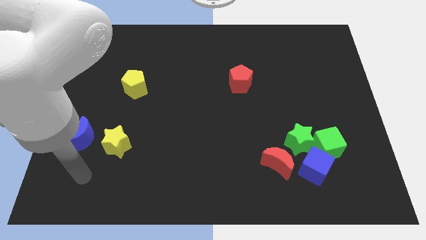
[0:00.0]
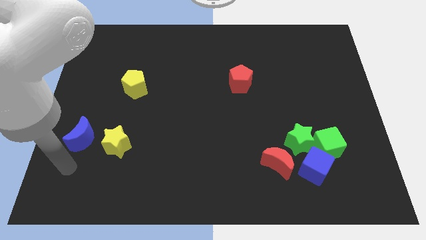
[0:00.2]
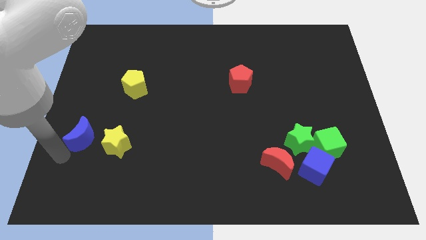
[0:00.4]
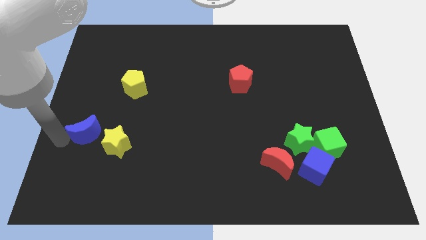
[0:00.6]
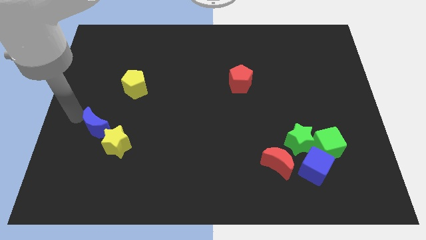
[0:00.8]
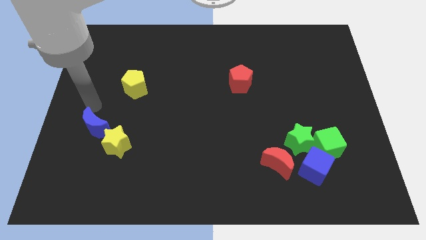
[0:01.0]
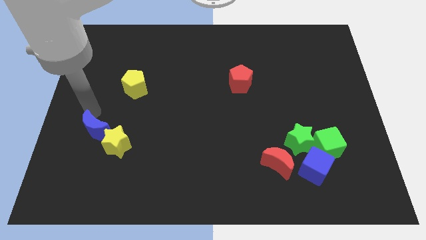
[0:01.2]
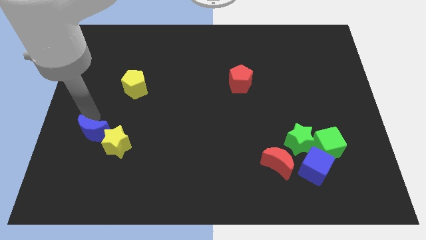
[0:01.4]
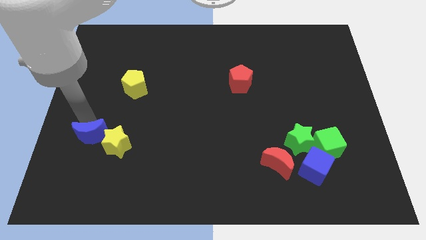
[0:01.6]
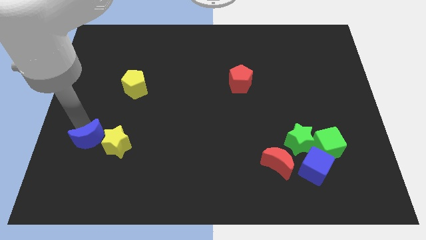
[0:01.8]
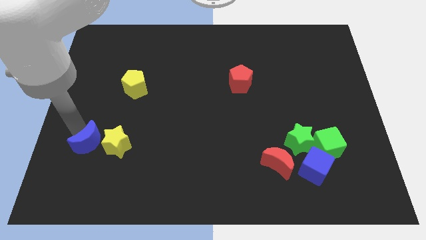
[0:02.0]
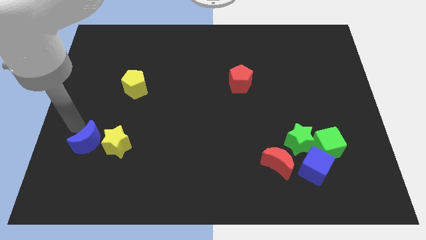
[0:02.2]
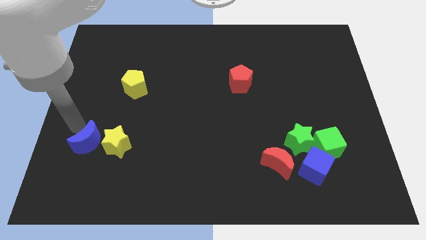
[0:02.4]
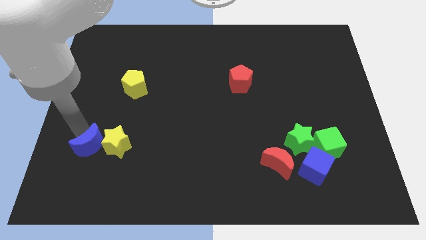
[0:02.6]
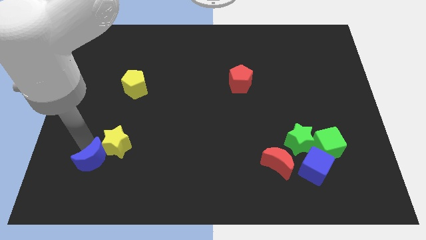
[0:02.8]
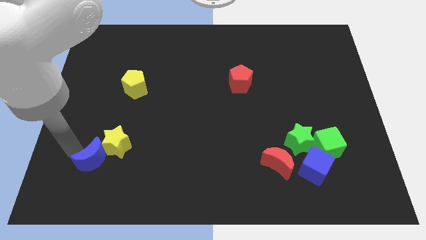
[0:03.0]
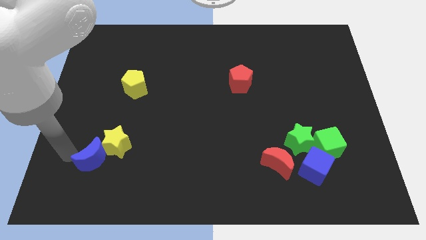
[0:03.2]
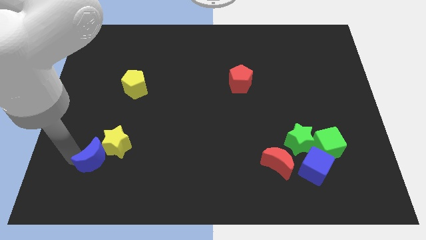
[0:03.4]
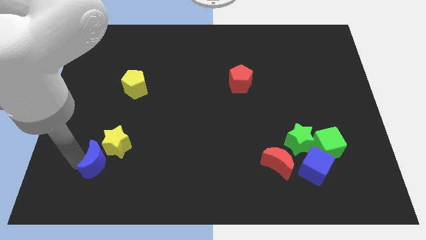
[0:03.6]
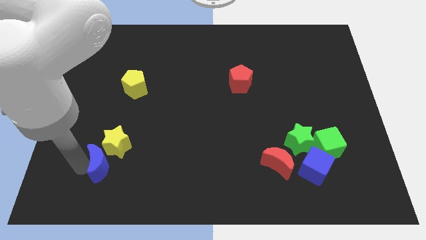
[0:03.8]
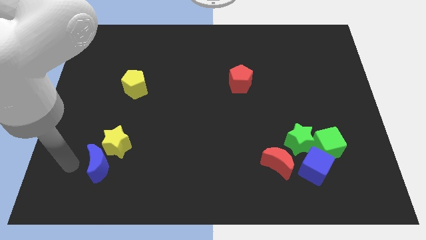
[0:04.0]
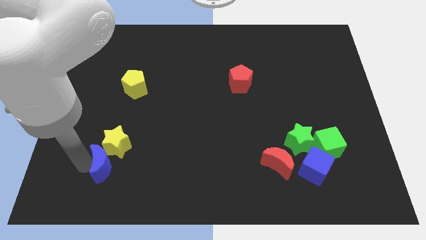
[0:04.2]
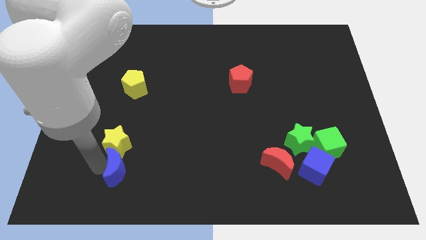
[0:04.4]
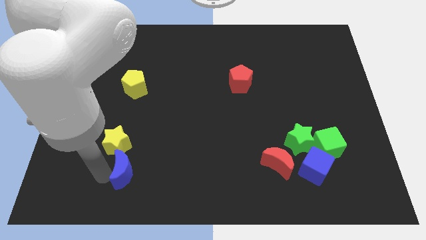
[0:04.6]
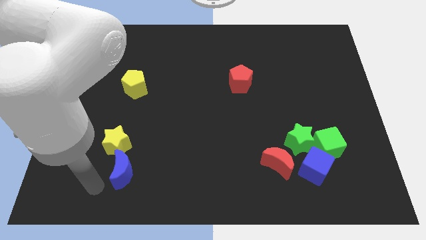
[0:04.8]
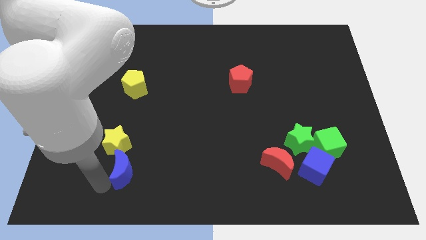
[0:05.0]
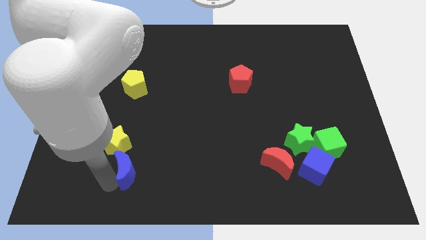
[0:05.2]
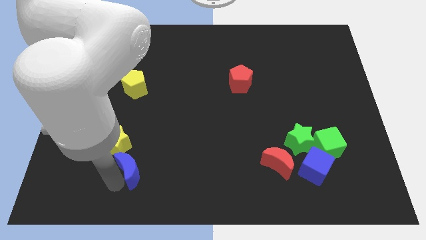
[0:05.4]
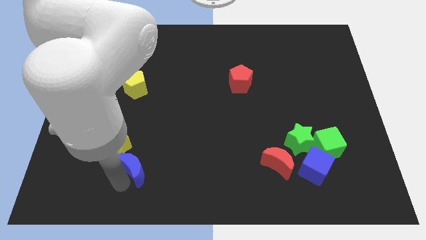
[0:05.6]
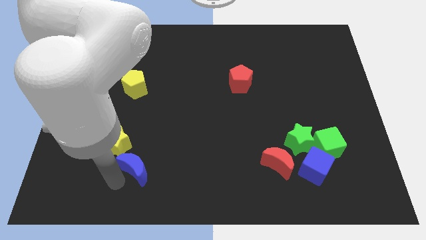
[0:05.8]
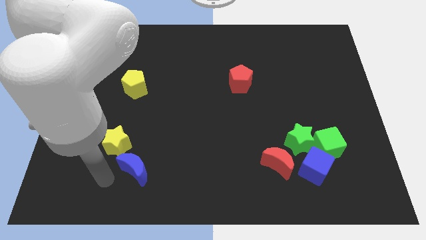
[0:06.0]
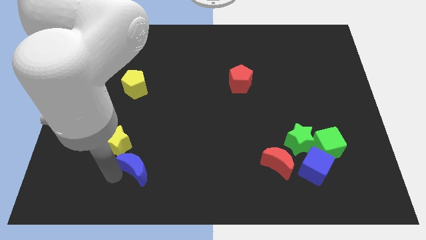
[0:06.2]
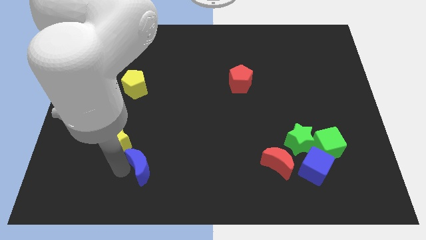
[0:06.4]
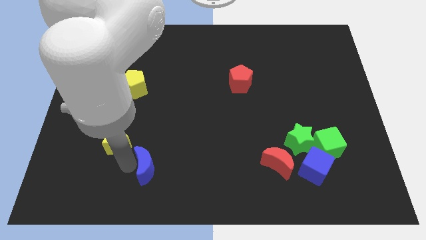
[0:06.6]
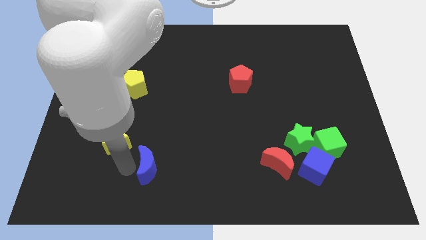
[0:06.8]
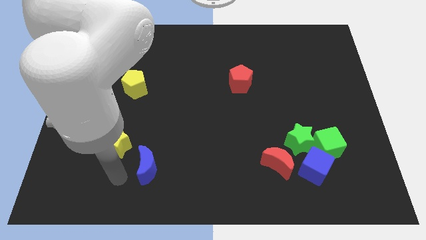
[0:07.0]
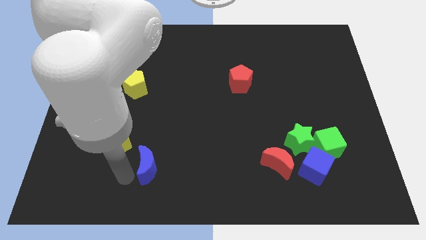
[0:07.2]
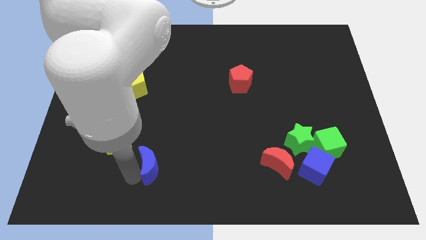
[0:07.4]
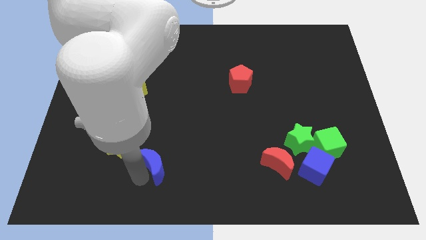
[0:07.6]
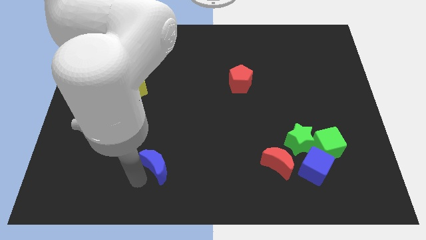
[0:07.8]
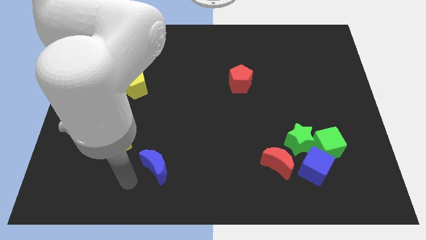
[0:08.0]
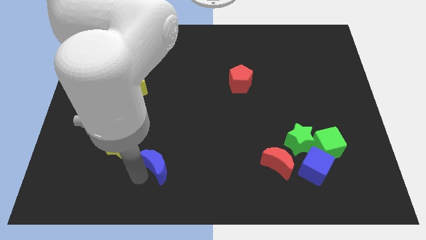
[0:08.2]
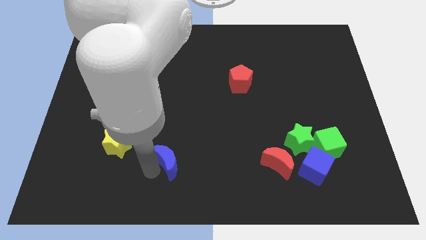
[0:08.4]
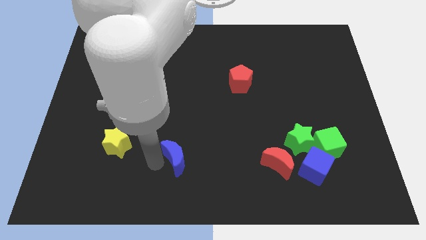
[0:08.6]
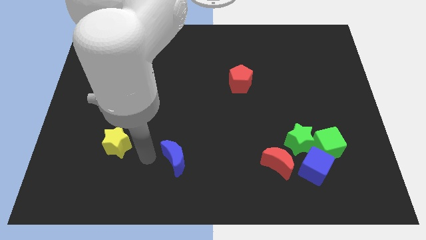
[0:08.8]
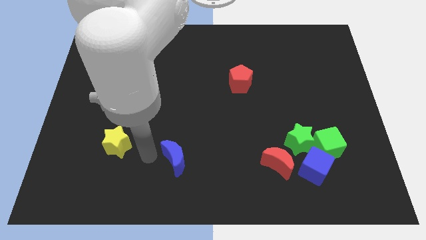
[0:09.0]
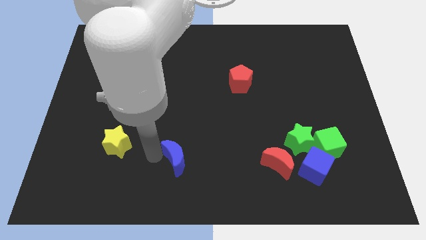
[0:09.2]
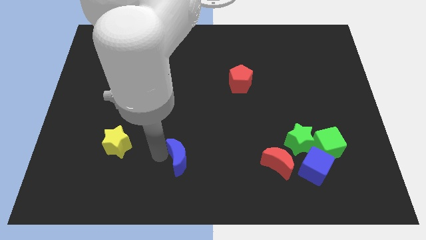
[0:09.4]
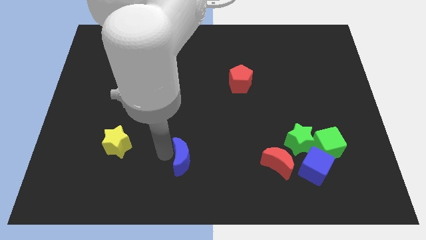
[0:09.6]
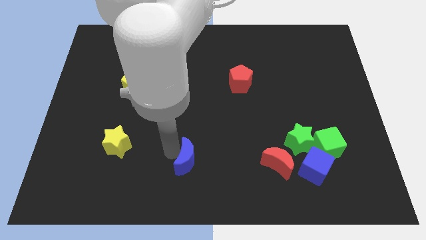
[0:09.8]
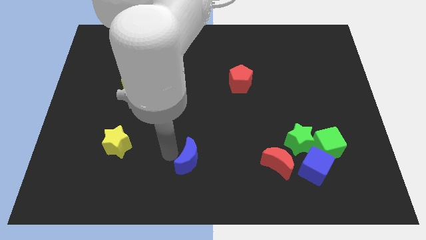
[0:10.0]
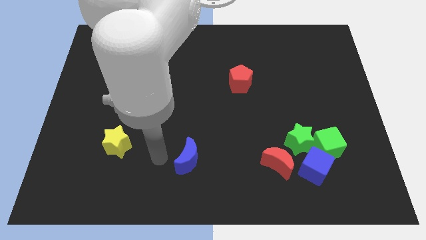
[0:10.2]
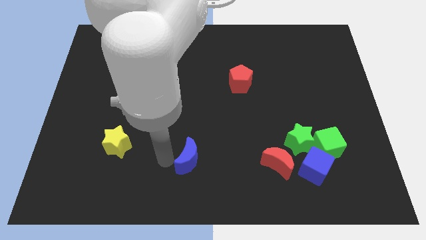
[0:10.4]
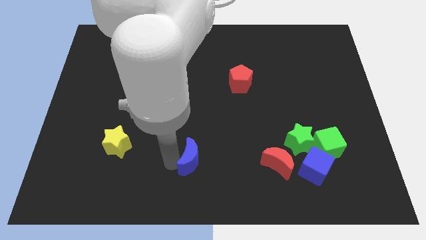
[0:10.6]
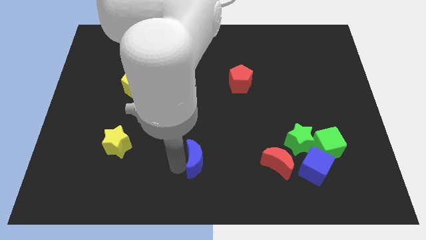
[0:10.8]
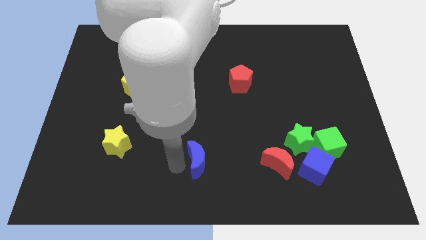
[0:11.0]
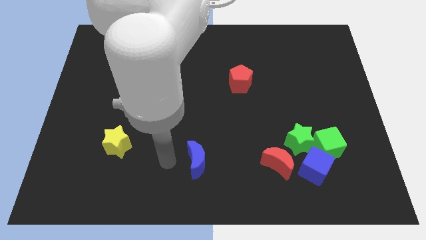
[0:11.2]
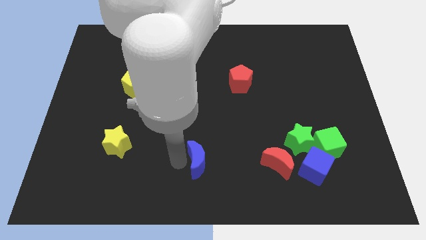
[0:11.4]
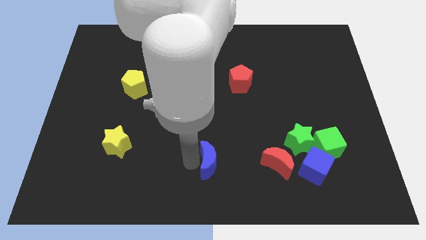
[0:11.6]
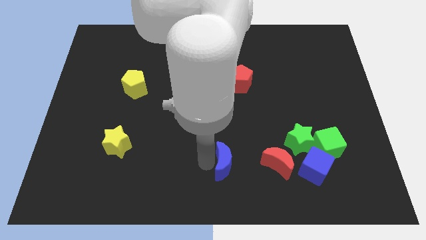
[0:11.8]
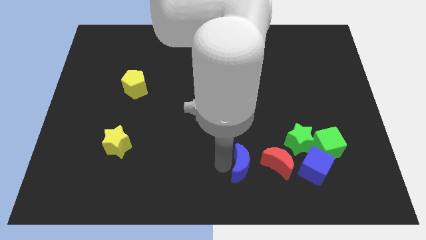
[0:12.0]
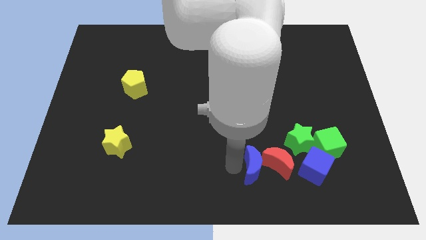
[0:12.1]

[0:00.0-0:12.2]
push the blue moon to the red moon

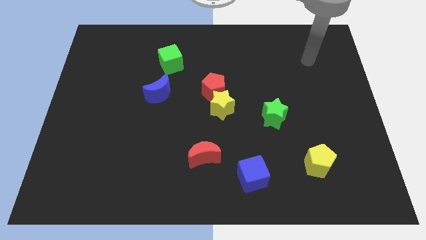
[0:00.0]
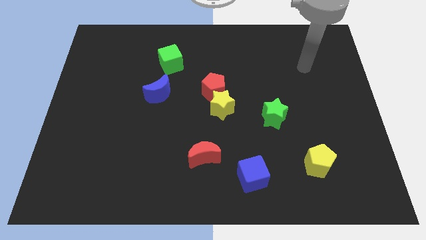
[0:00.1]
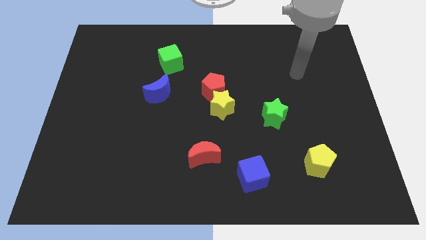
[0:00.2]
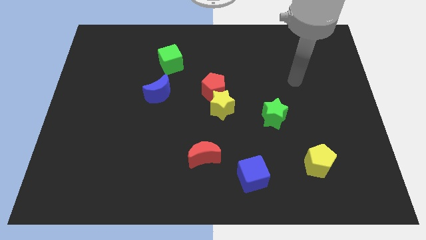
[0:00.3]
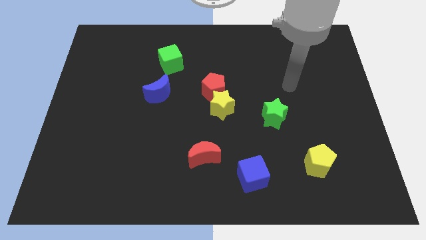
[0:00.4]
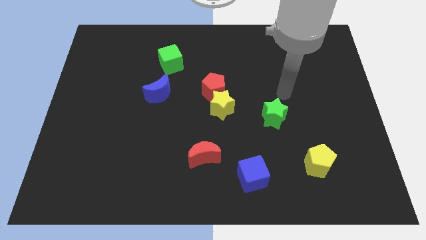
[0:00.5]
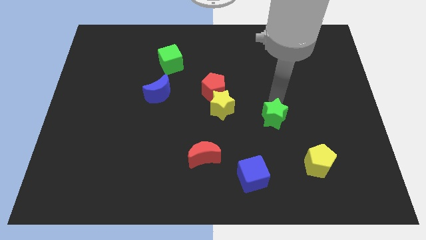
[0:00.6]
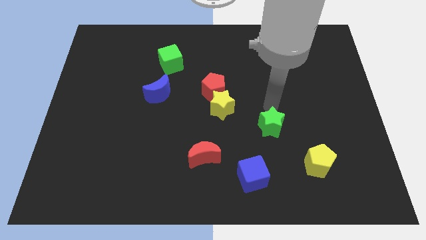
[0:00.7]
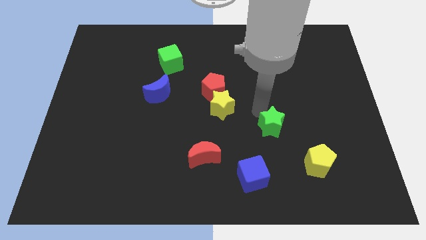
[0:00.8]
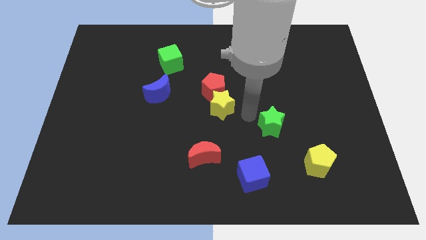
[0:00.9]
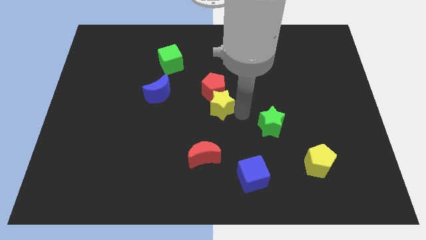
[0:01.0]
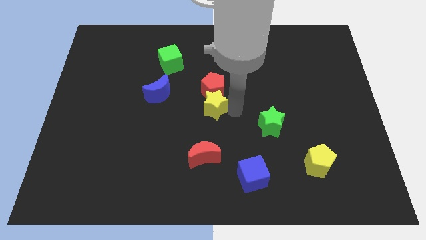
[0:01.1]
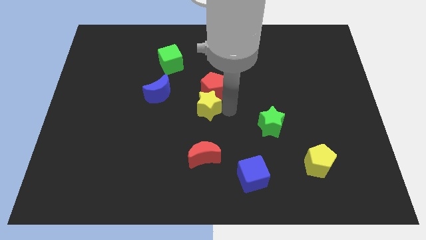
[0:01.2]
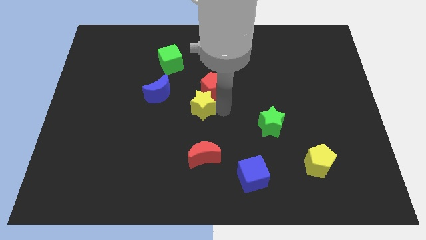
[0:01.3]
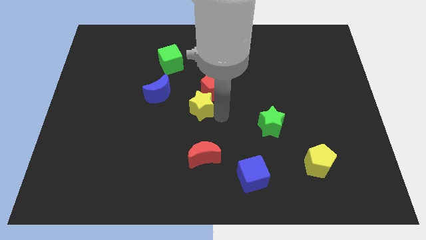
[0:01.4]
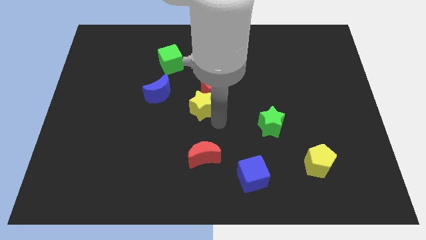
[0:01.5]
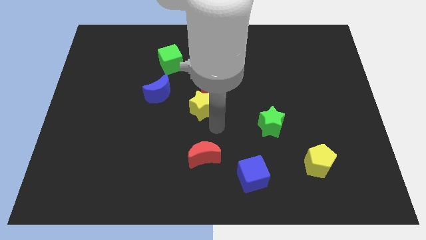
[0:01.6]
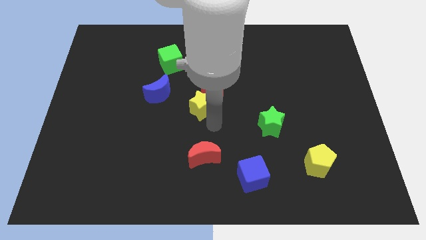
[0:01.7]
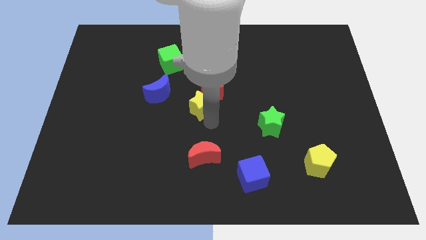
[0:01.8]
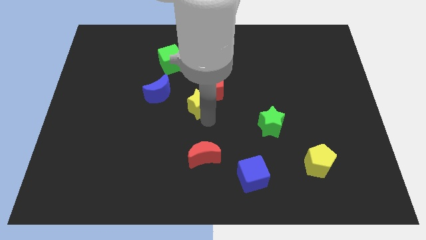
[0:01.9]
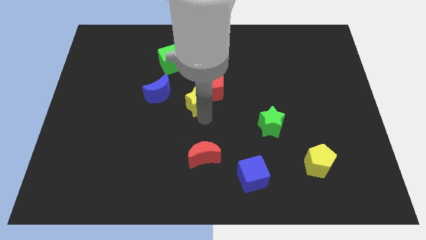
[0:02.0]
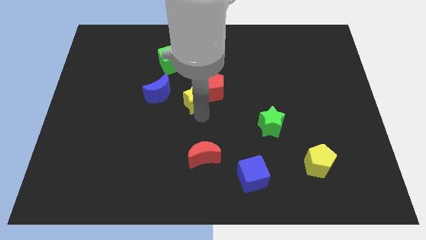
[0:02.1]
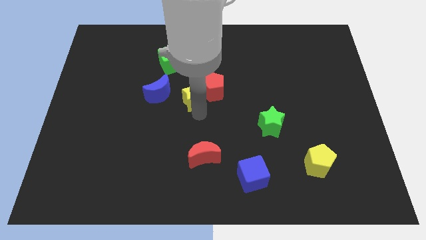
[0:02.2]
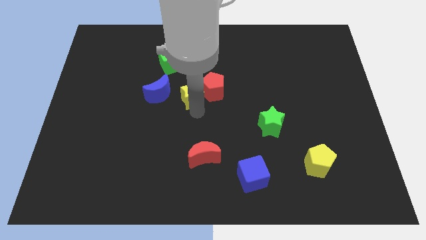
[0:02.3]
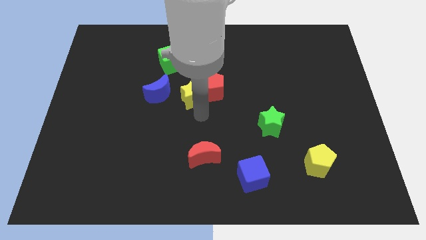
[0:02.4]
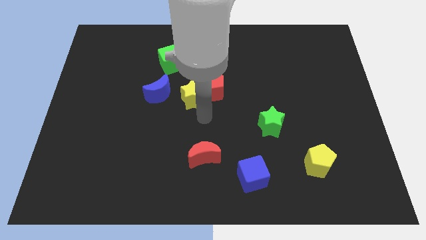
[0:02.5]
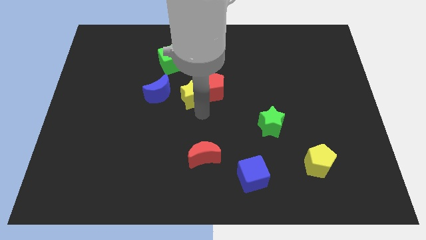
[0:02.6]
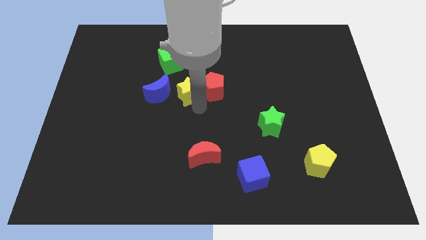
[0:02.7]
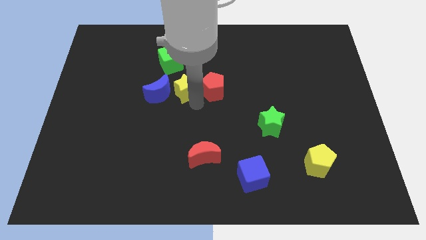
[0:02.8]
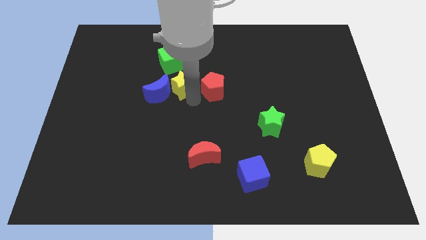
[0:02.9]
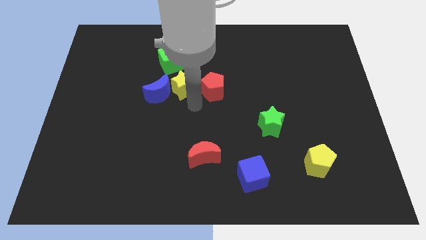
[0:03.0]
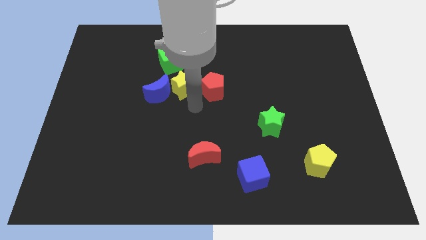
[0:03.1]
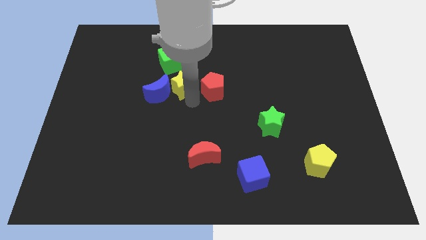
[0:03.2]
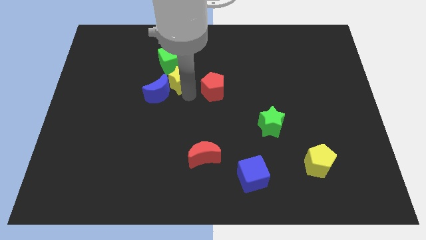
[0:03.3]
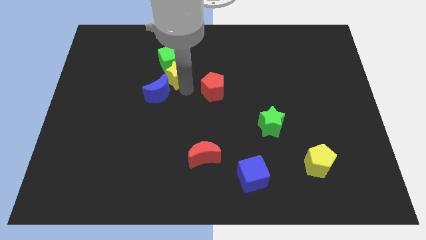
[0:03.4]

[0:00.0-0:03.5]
put the yellow star next to the green cube
